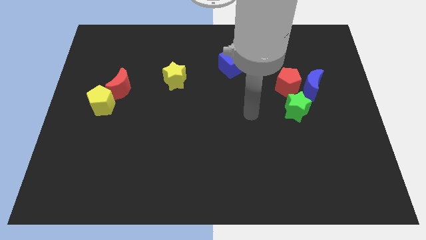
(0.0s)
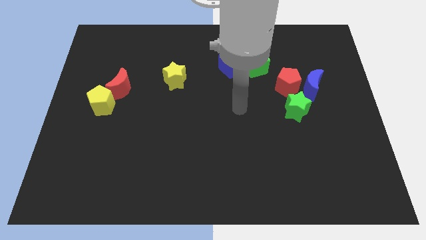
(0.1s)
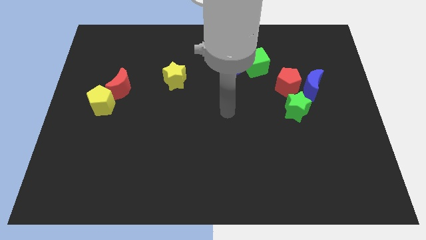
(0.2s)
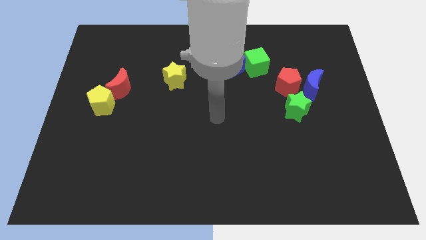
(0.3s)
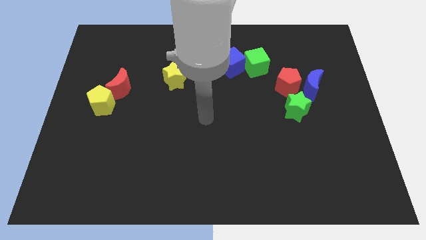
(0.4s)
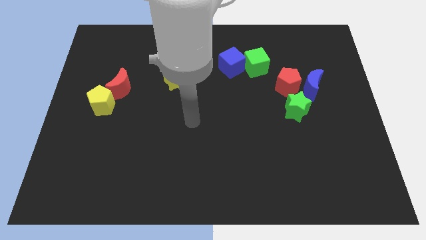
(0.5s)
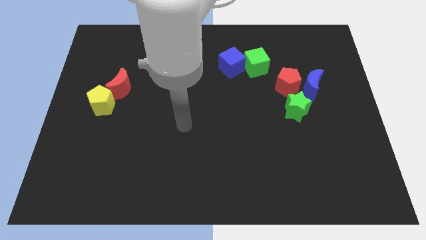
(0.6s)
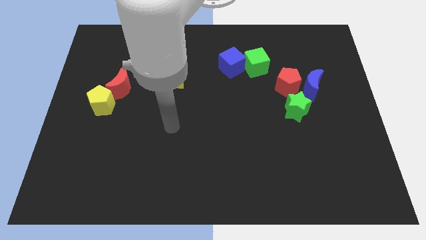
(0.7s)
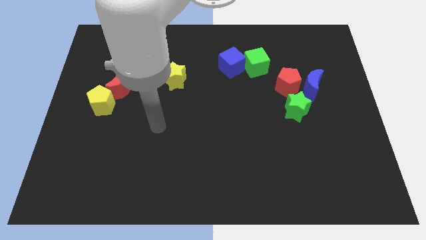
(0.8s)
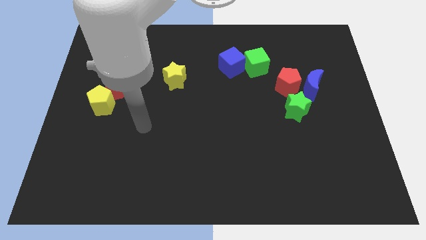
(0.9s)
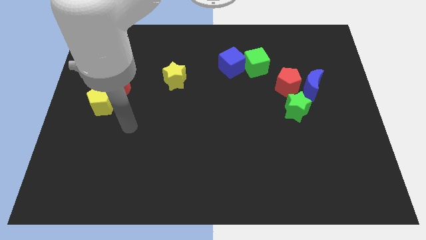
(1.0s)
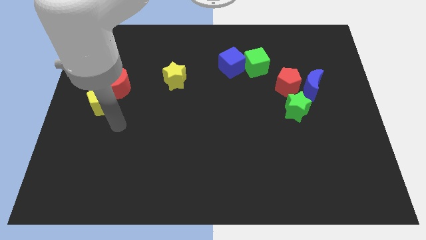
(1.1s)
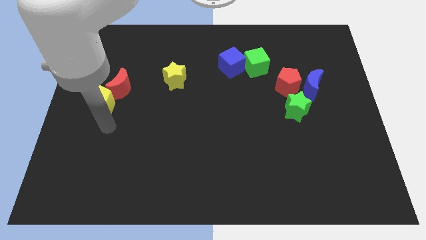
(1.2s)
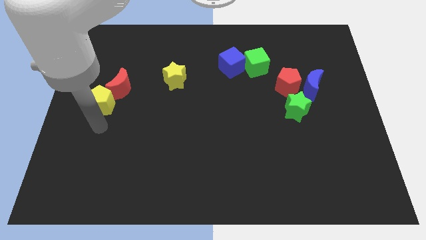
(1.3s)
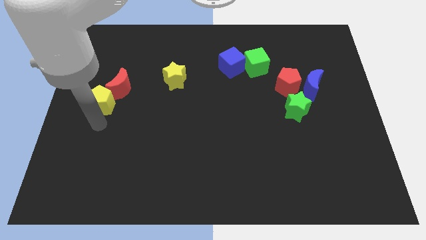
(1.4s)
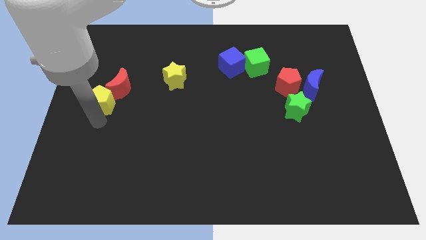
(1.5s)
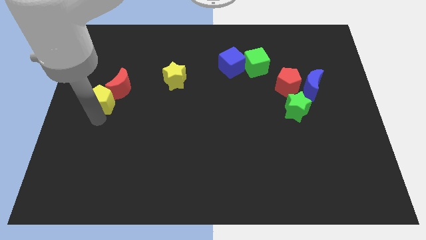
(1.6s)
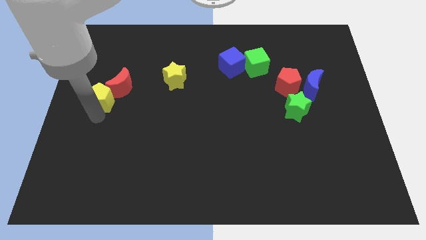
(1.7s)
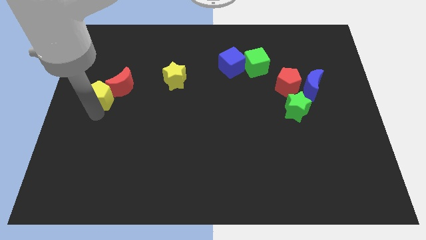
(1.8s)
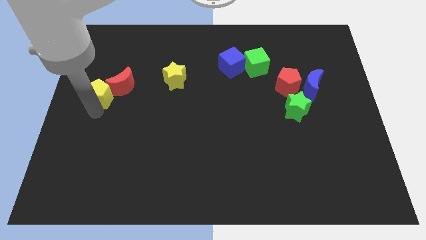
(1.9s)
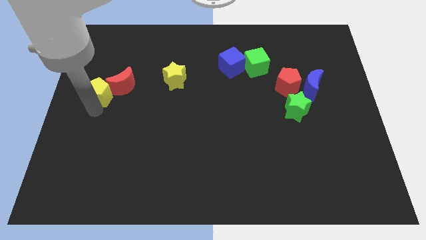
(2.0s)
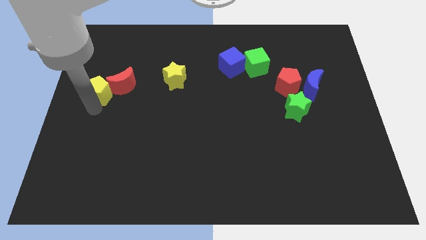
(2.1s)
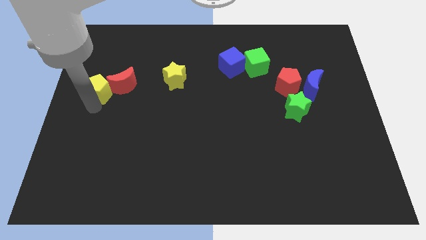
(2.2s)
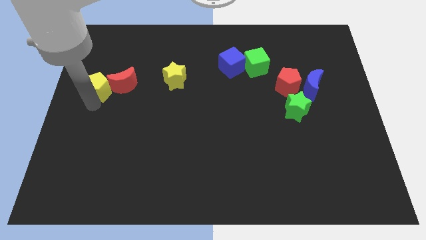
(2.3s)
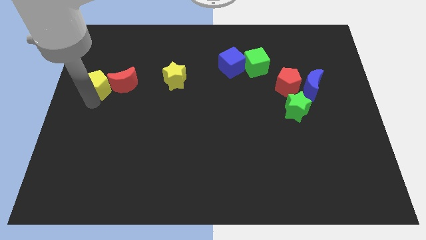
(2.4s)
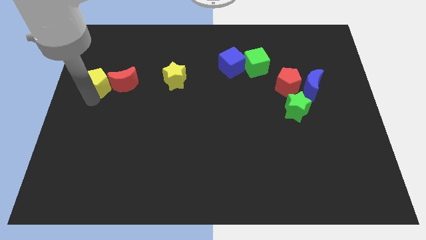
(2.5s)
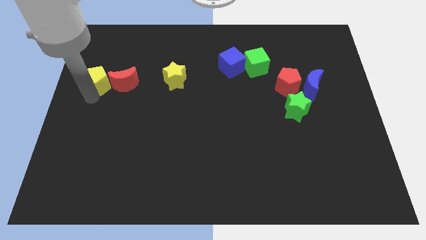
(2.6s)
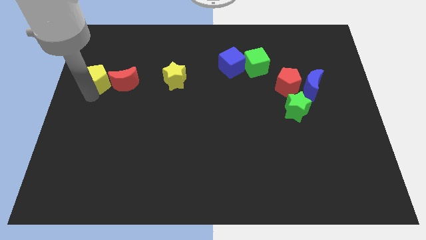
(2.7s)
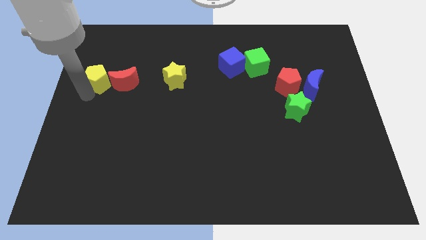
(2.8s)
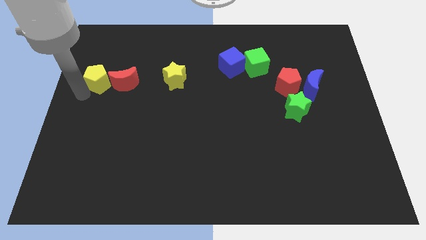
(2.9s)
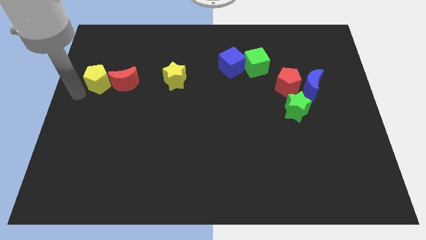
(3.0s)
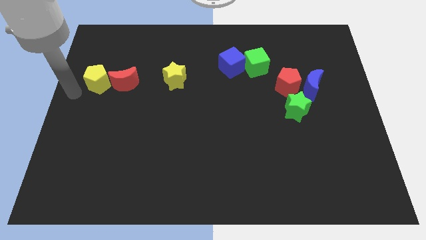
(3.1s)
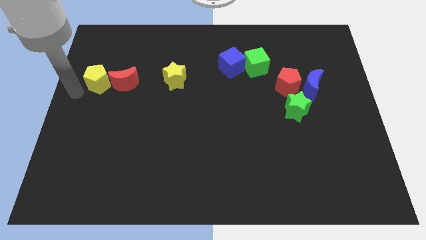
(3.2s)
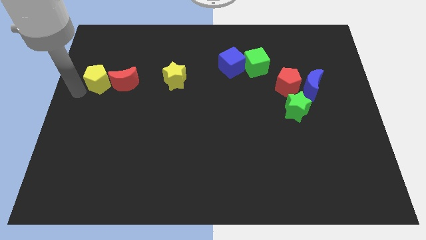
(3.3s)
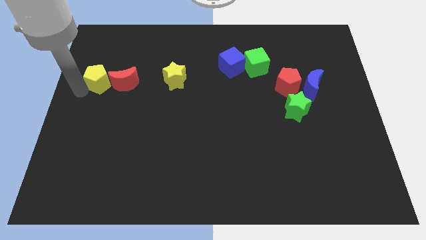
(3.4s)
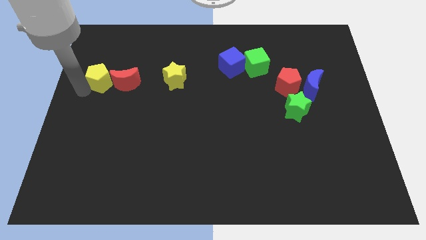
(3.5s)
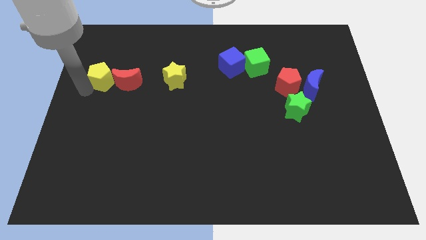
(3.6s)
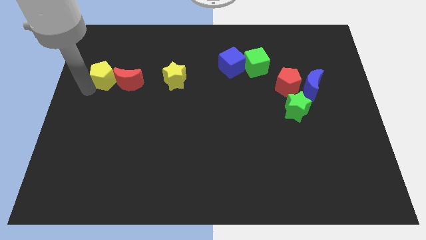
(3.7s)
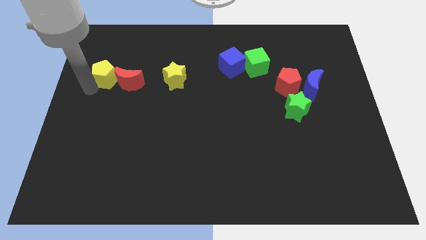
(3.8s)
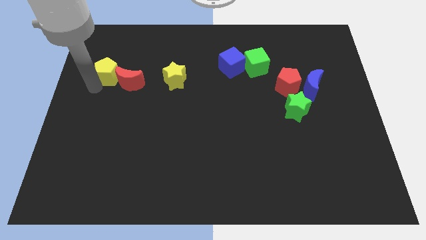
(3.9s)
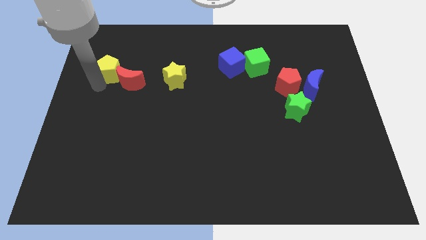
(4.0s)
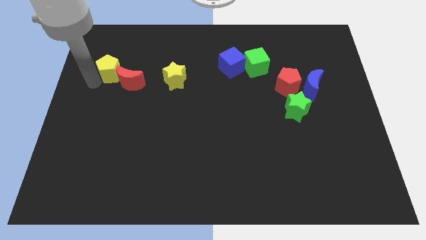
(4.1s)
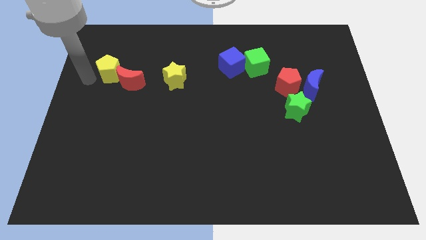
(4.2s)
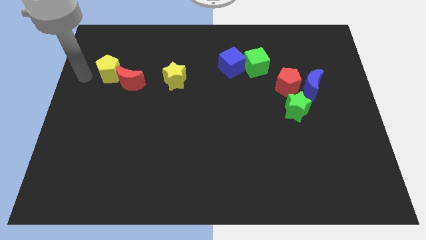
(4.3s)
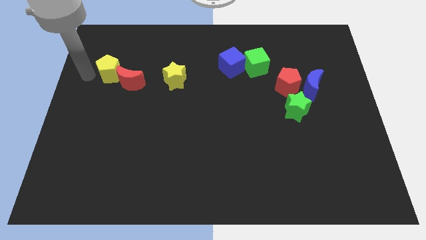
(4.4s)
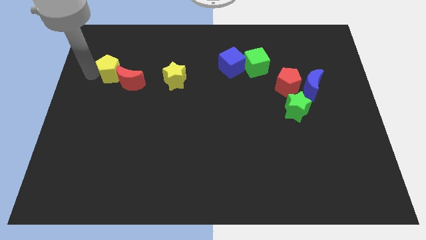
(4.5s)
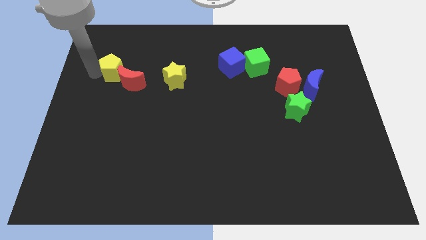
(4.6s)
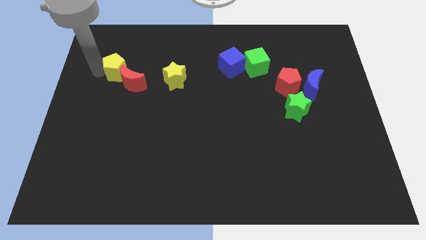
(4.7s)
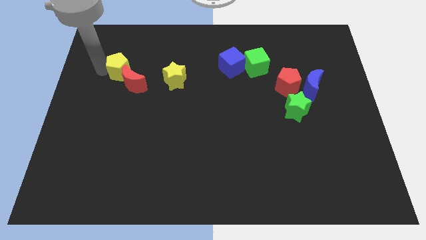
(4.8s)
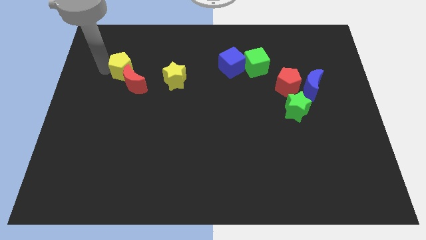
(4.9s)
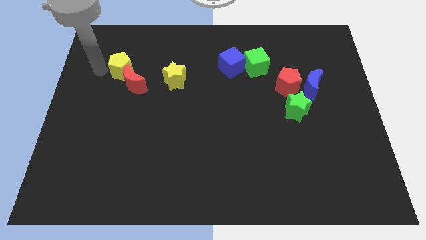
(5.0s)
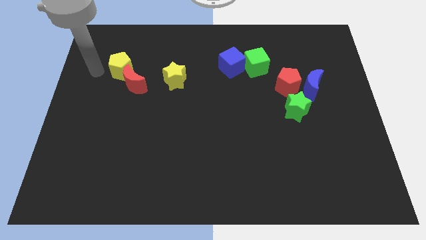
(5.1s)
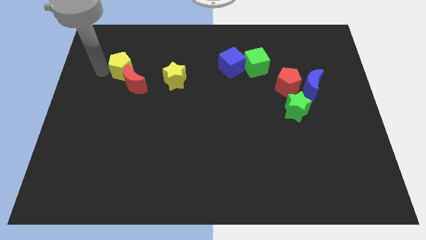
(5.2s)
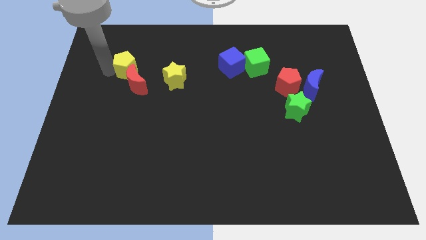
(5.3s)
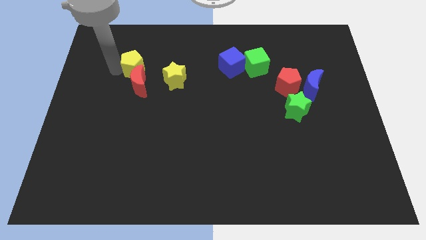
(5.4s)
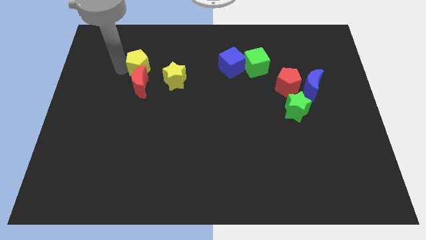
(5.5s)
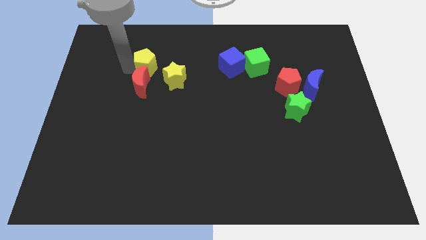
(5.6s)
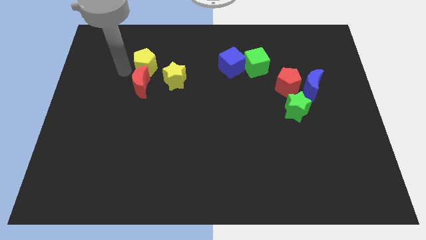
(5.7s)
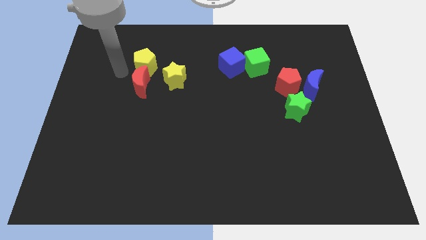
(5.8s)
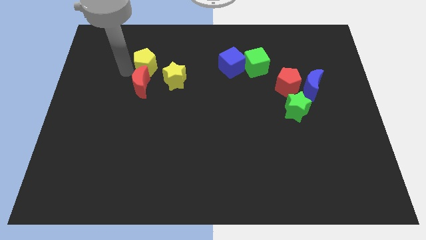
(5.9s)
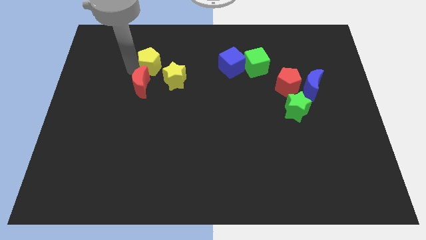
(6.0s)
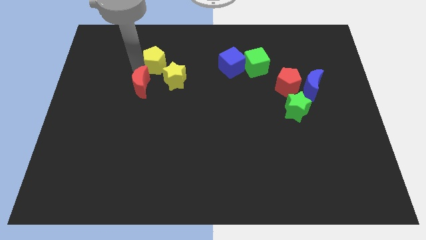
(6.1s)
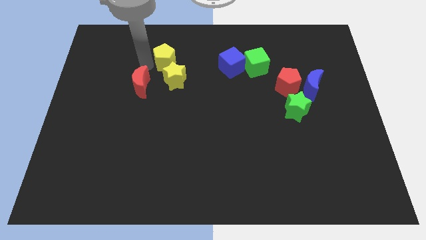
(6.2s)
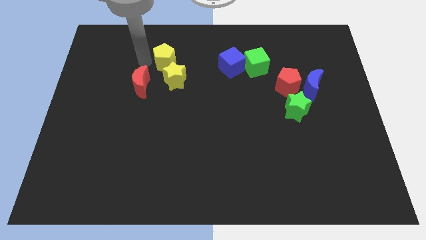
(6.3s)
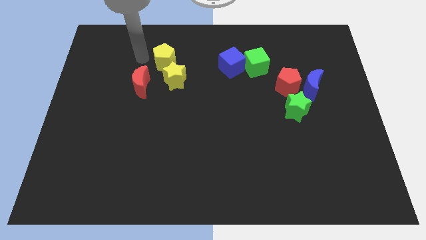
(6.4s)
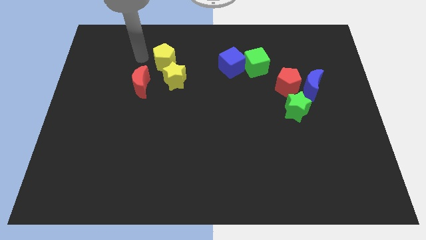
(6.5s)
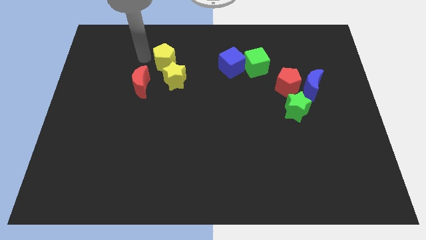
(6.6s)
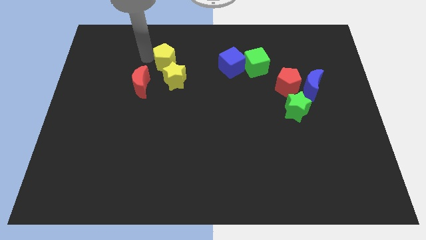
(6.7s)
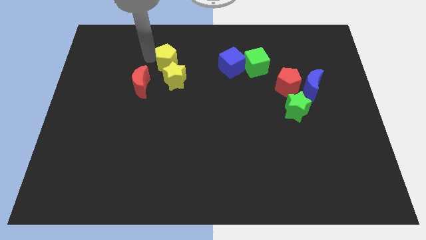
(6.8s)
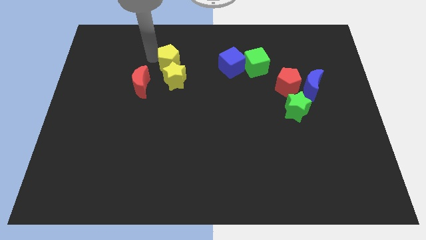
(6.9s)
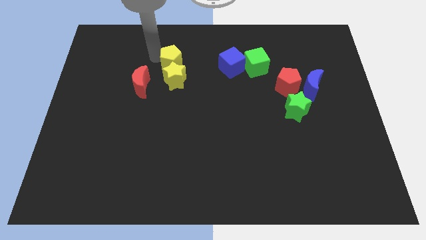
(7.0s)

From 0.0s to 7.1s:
move the yellow pentagon to the left side of the blue cube

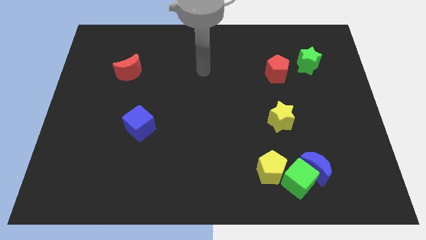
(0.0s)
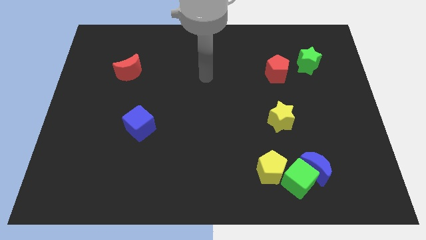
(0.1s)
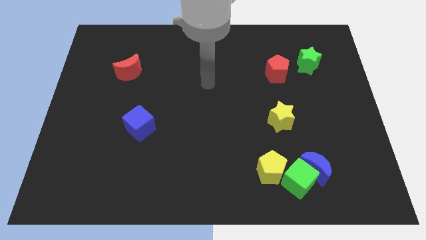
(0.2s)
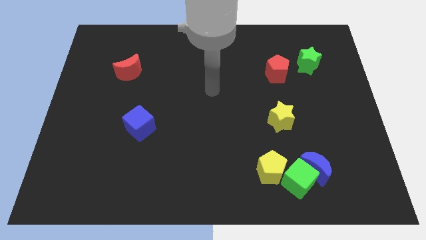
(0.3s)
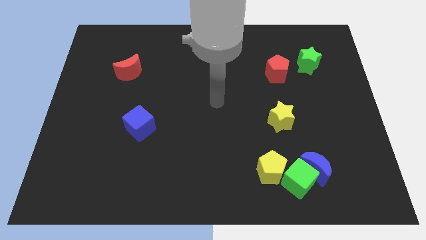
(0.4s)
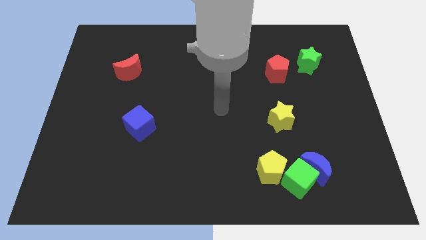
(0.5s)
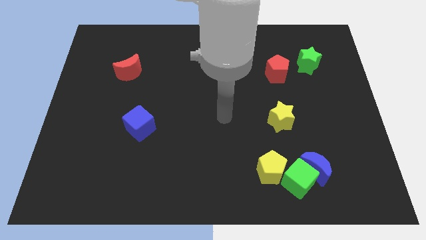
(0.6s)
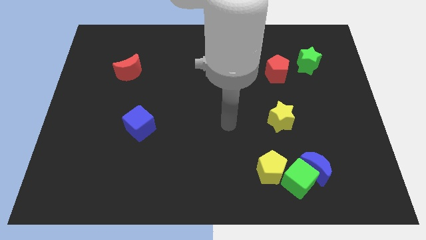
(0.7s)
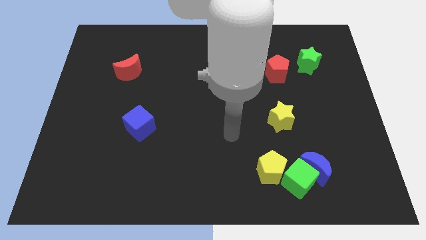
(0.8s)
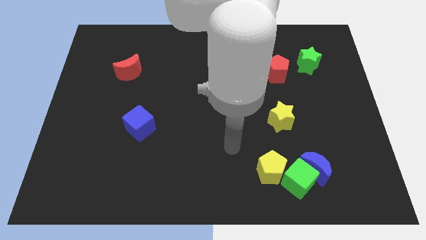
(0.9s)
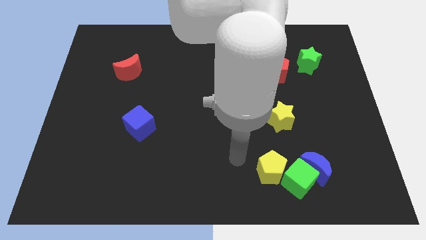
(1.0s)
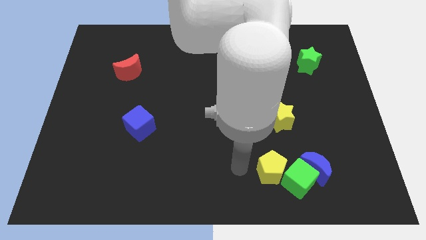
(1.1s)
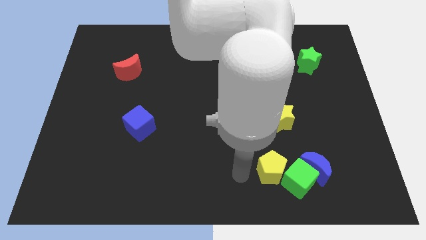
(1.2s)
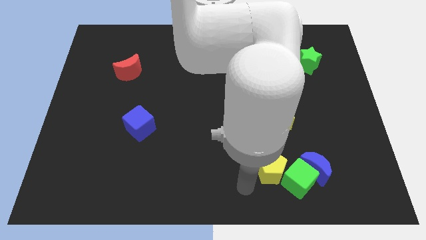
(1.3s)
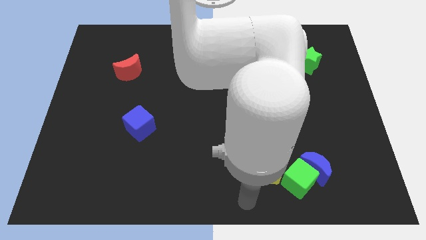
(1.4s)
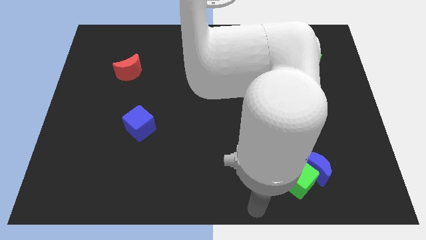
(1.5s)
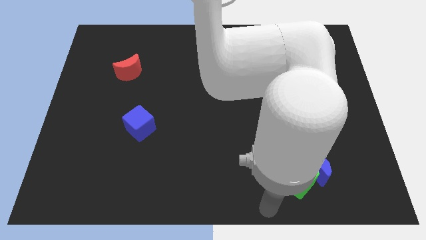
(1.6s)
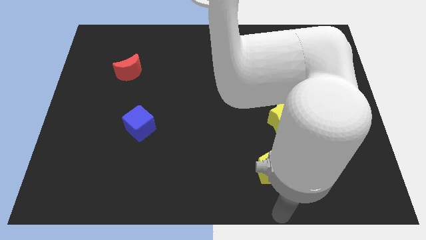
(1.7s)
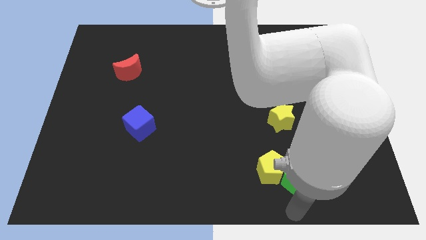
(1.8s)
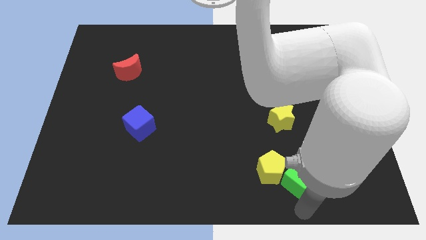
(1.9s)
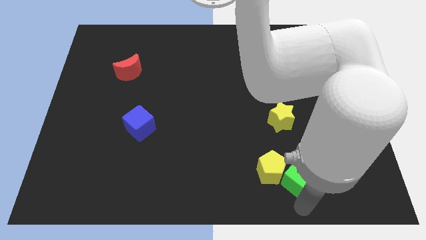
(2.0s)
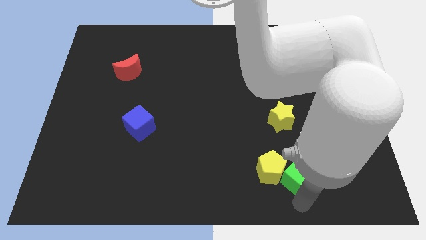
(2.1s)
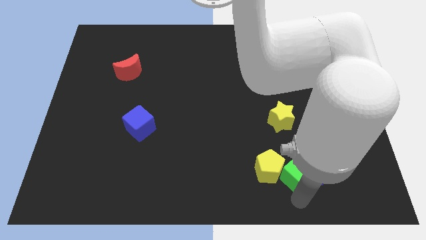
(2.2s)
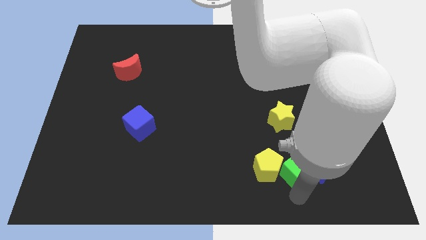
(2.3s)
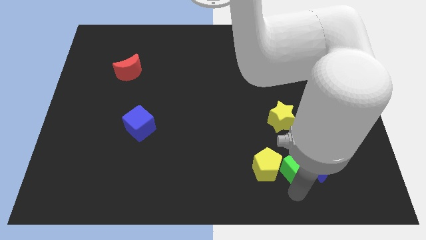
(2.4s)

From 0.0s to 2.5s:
put the green cube to the top right of the yellow pentagon
